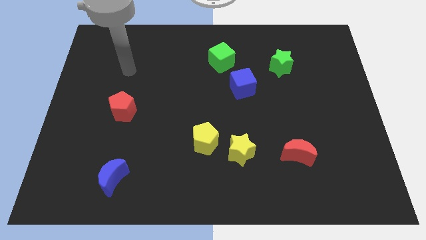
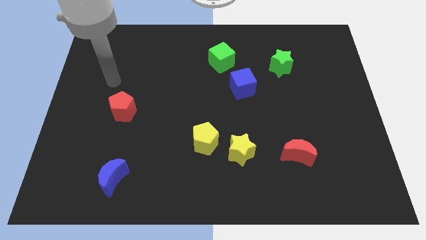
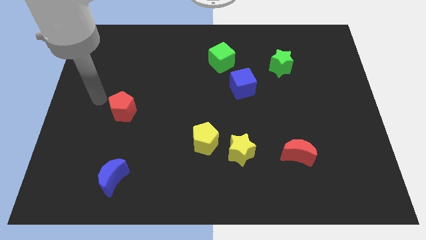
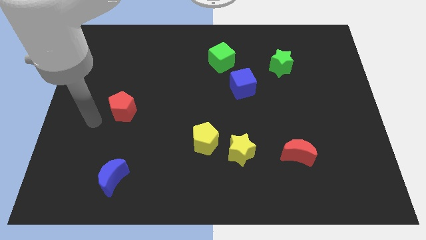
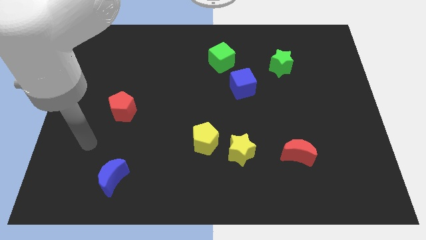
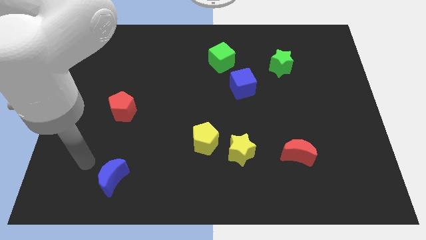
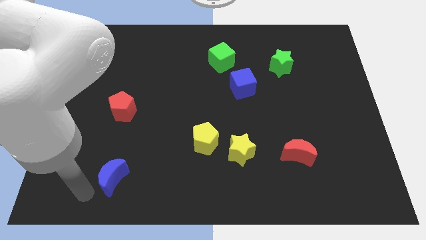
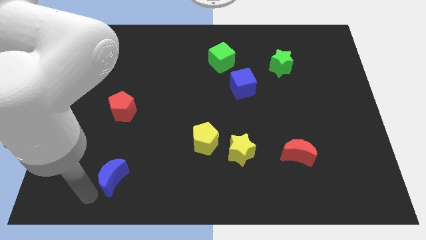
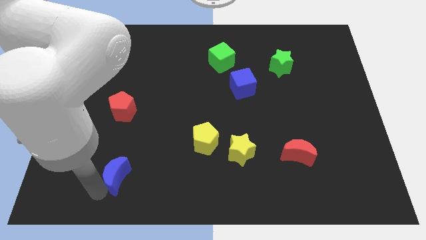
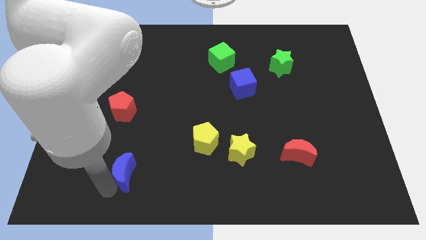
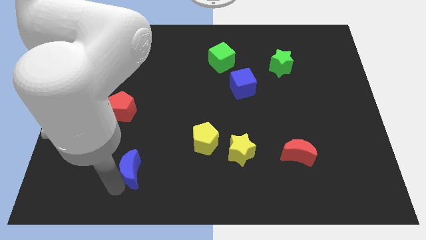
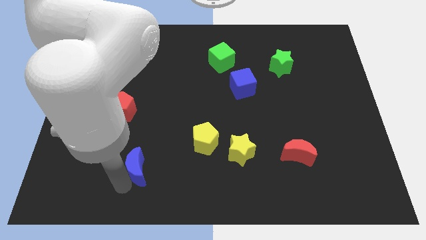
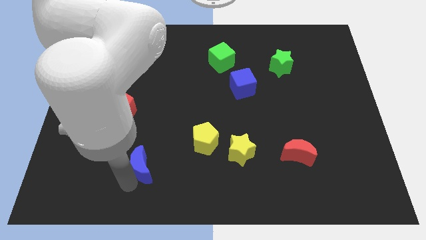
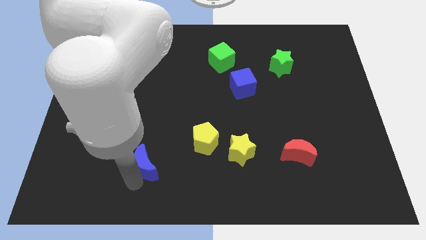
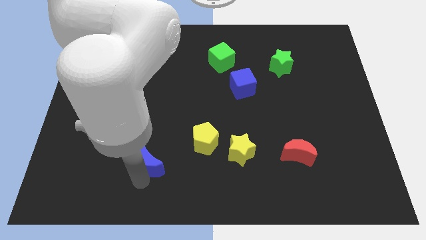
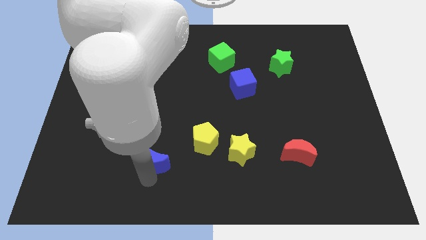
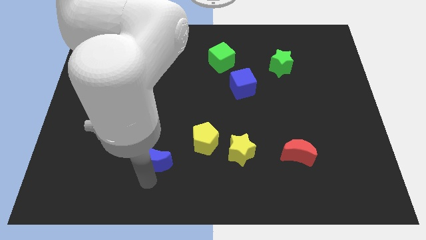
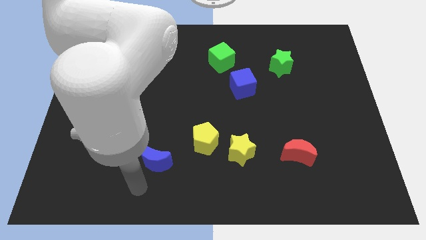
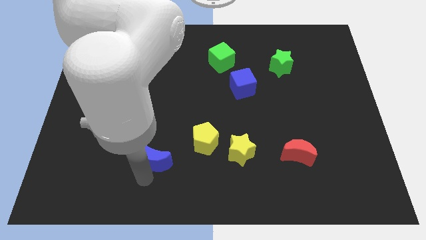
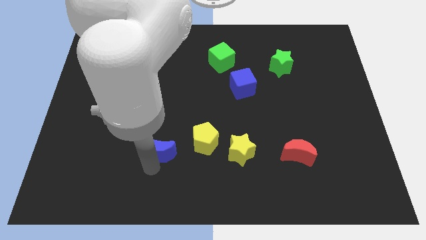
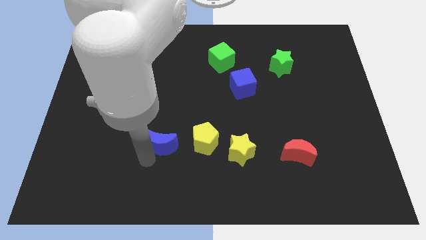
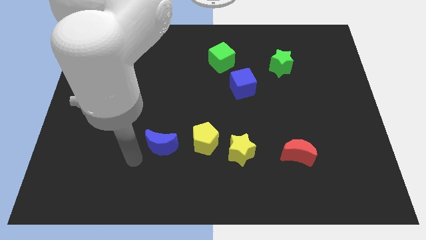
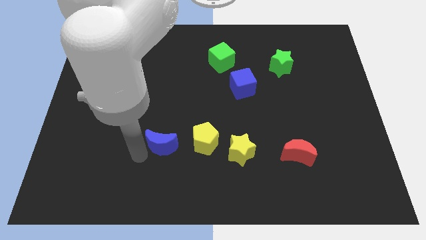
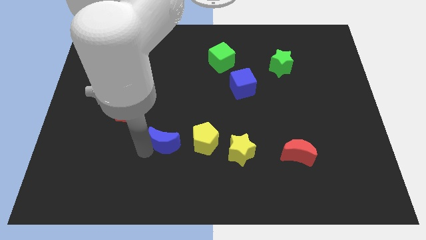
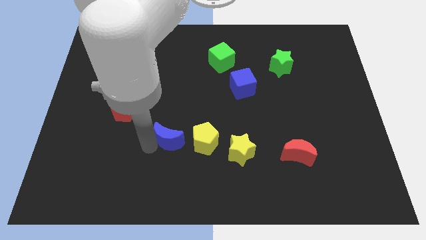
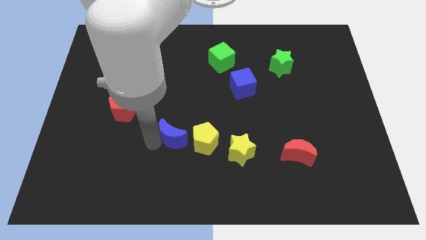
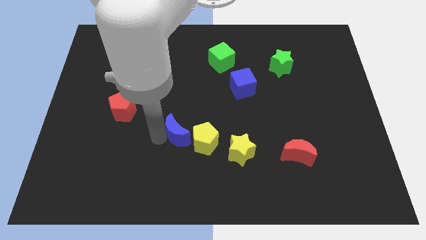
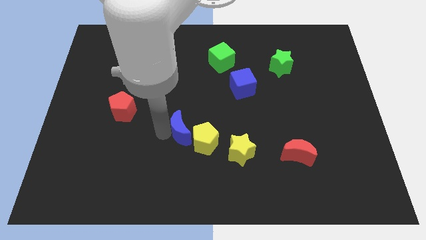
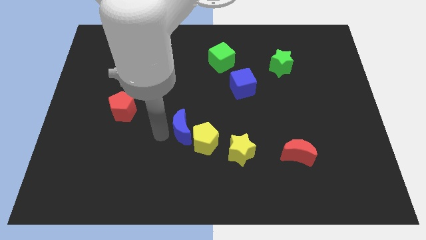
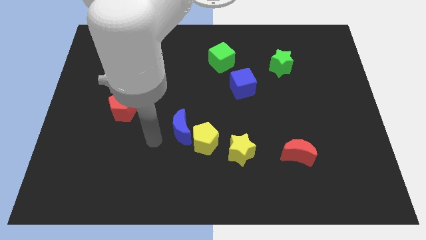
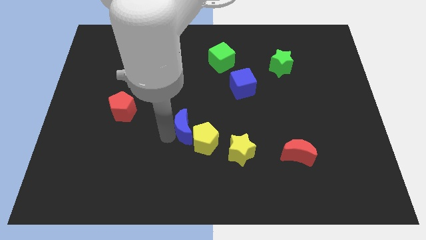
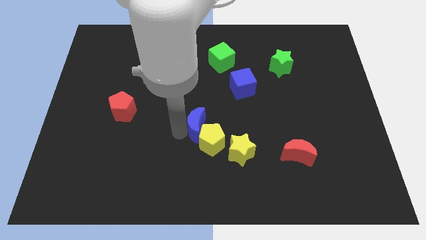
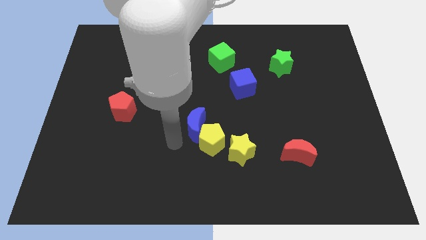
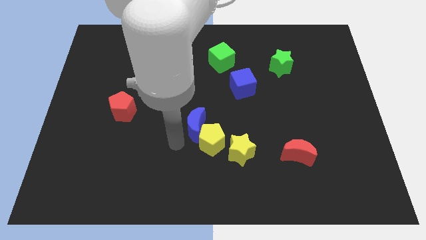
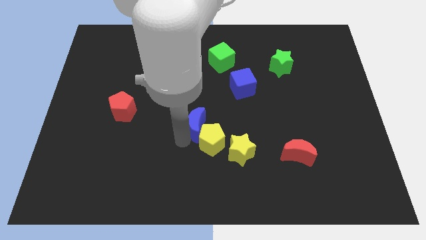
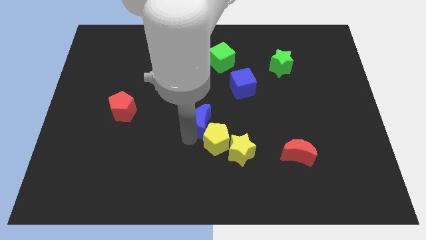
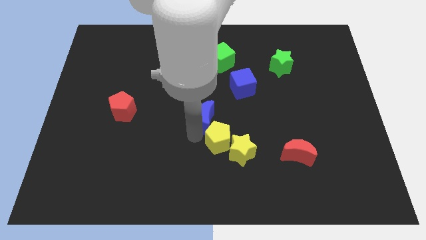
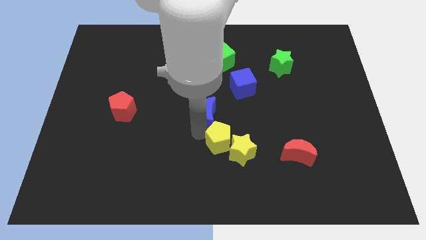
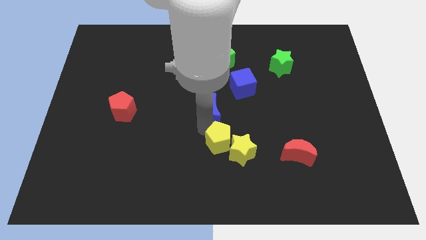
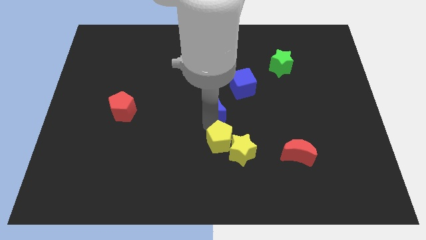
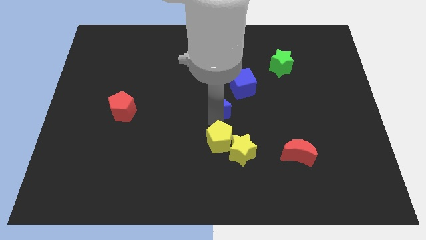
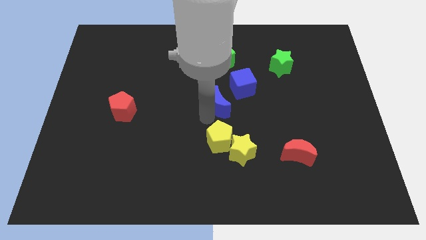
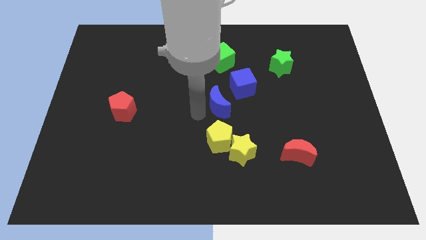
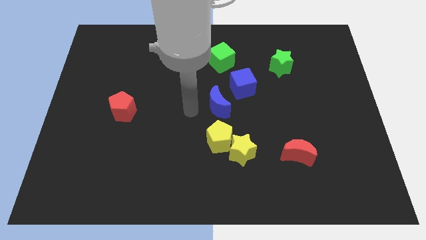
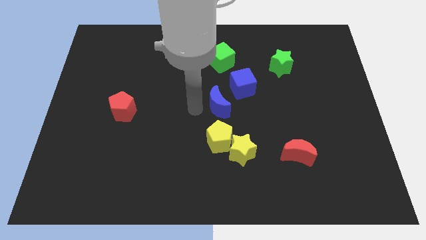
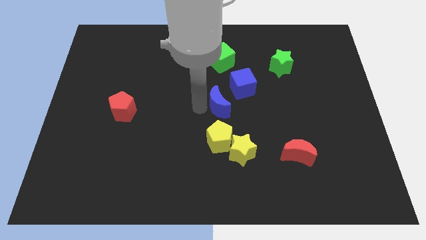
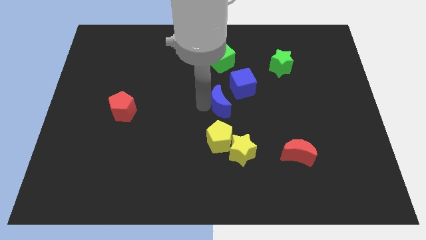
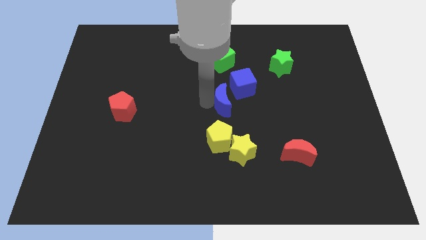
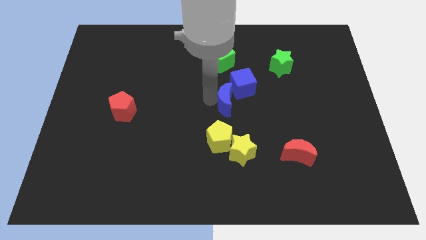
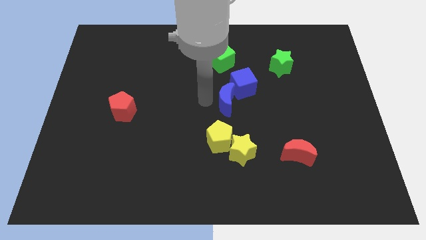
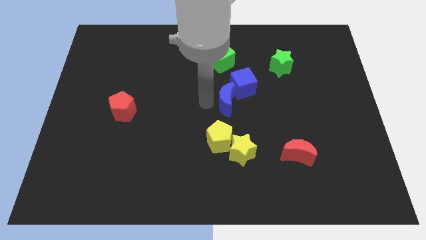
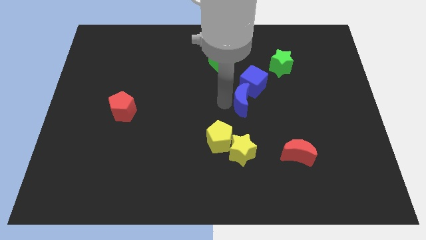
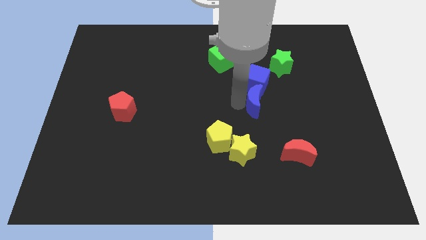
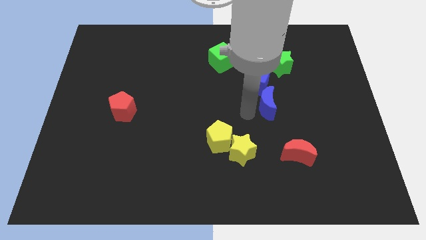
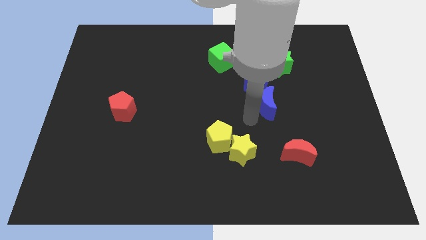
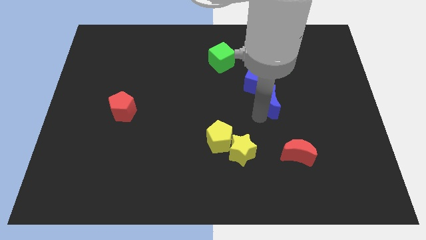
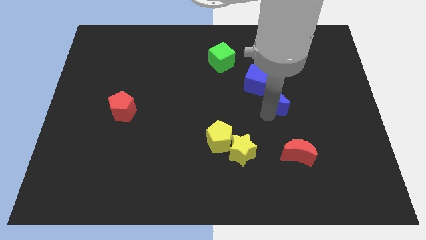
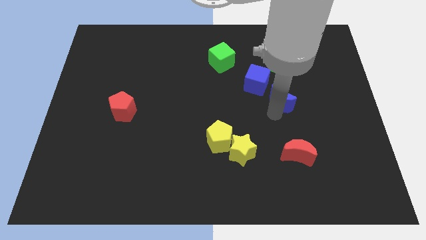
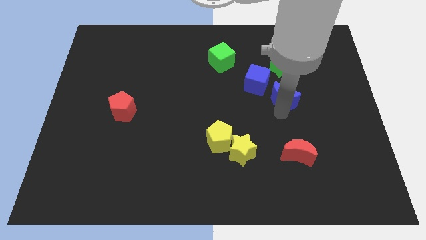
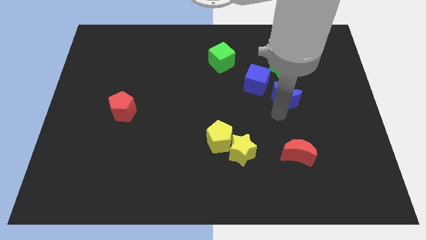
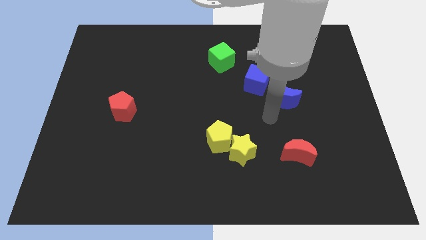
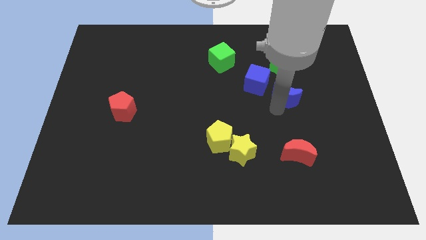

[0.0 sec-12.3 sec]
slide the blue moon to the right side of the blue cube

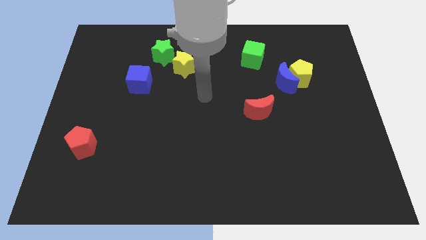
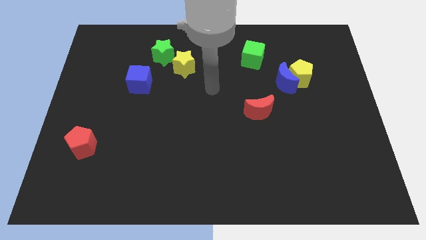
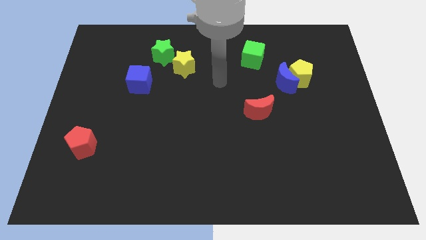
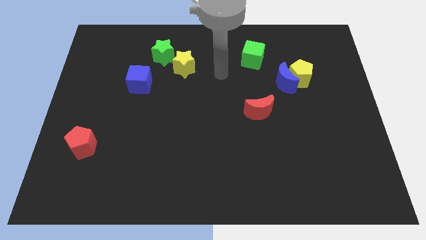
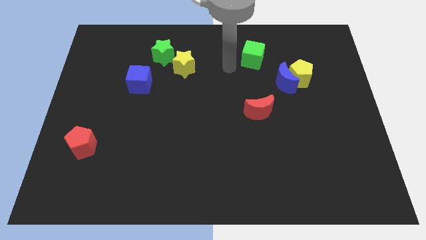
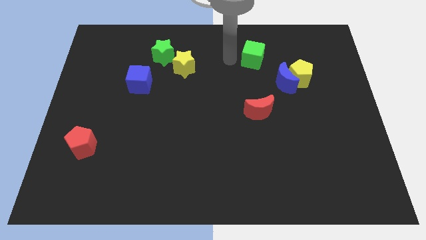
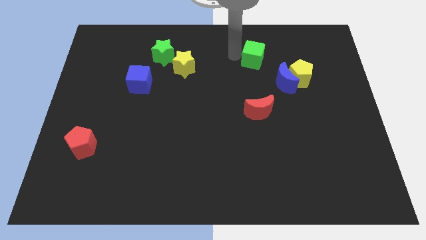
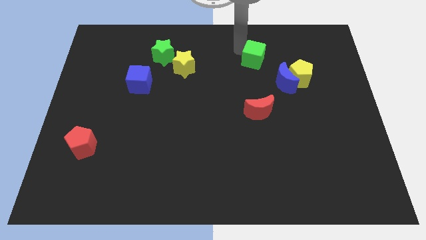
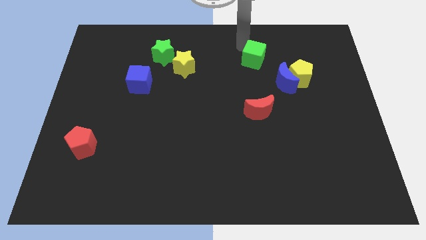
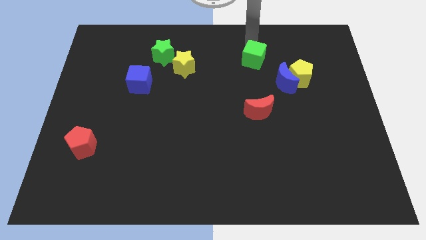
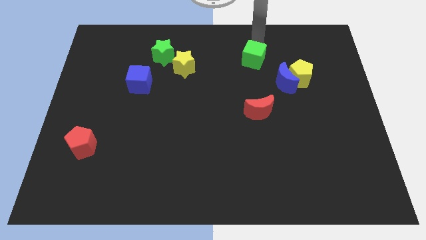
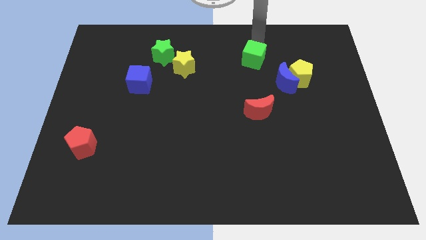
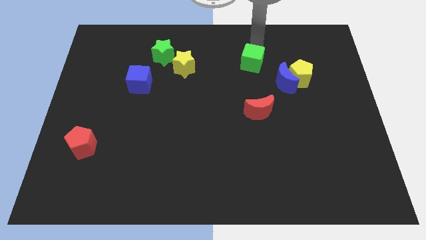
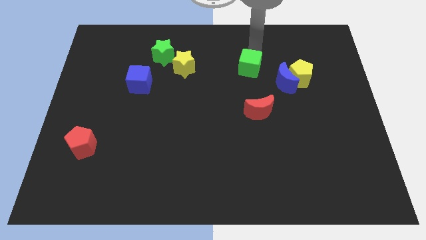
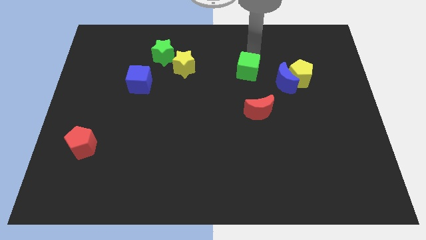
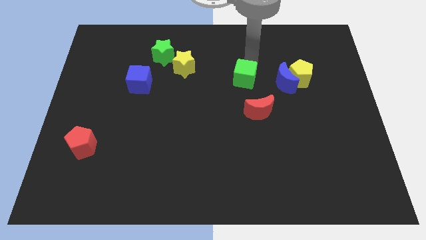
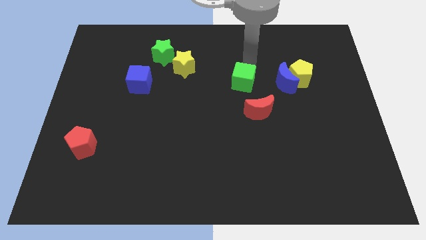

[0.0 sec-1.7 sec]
slide the green cube to the top left side of the red moon
